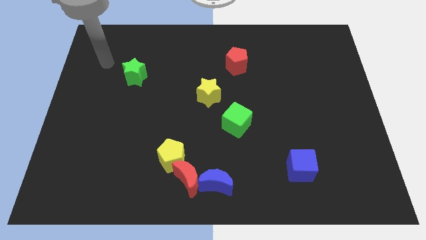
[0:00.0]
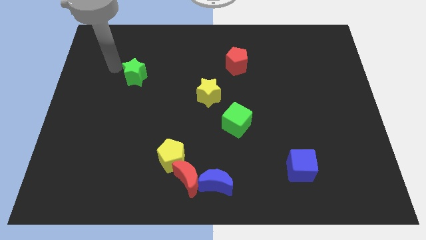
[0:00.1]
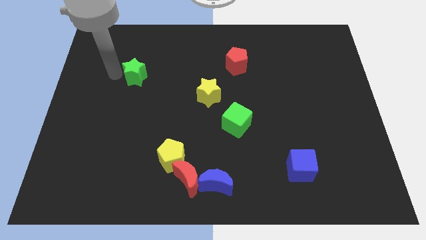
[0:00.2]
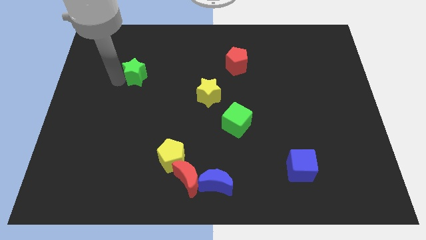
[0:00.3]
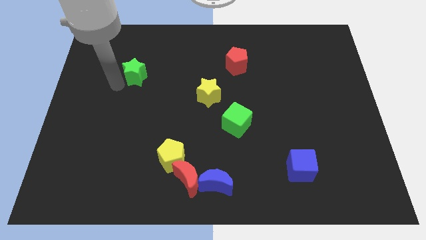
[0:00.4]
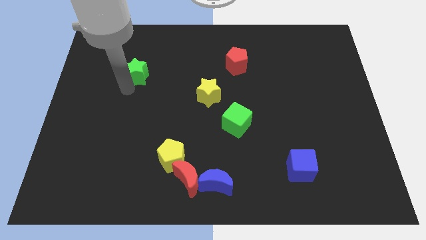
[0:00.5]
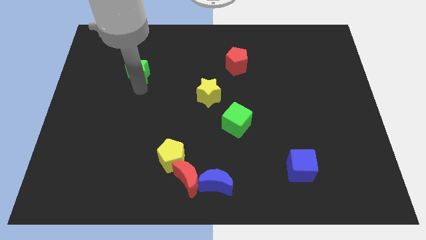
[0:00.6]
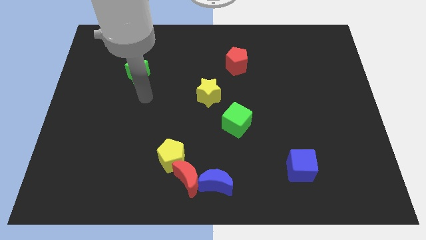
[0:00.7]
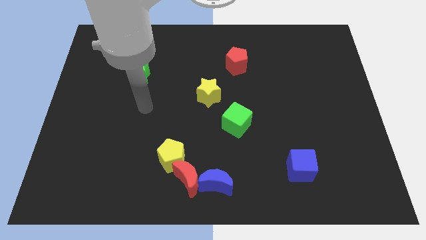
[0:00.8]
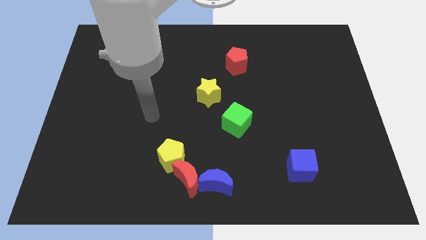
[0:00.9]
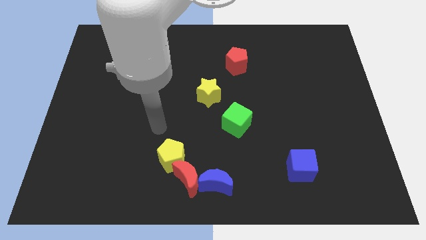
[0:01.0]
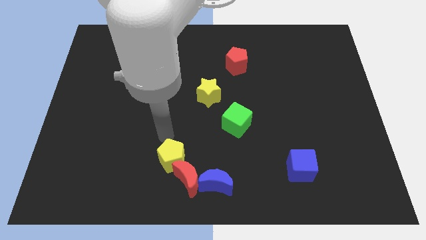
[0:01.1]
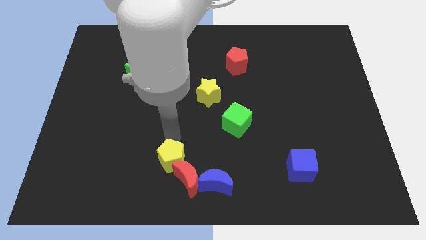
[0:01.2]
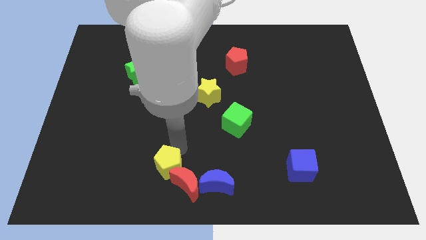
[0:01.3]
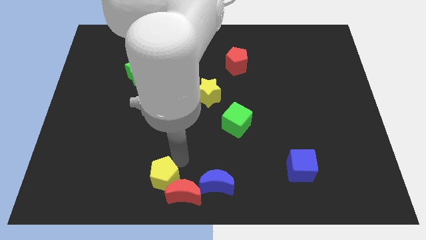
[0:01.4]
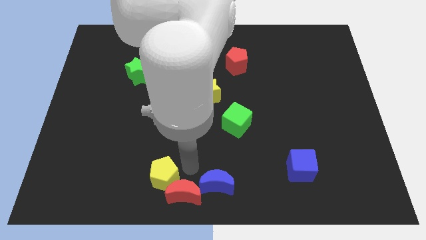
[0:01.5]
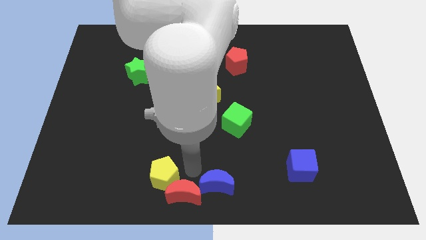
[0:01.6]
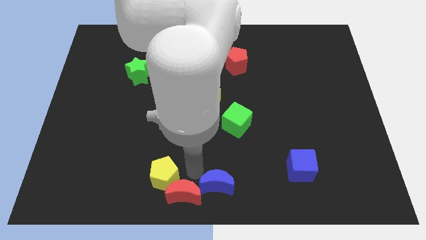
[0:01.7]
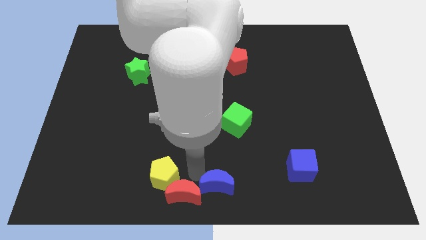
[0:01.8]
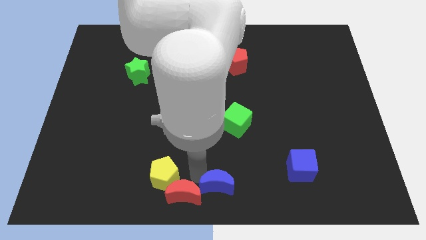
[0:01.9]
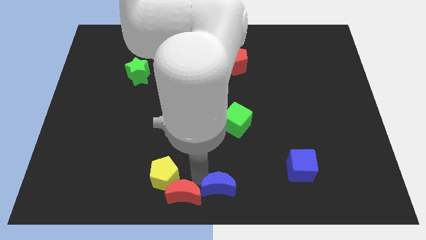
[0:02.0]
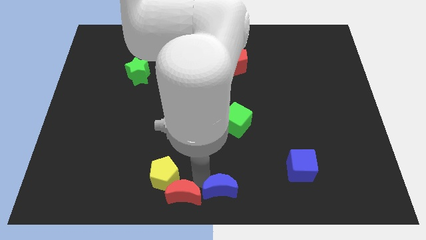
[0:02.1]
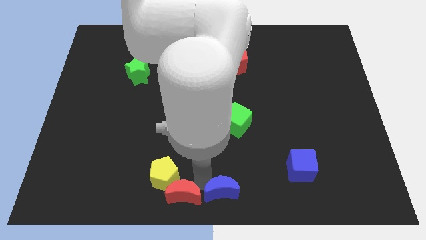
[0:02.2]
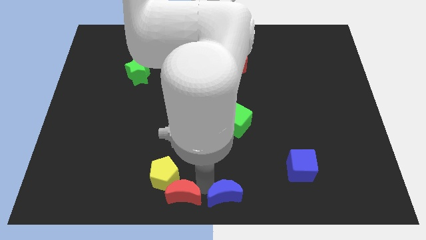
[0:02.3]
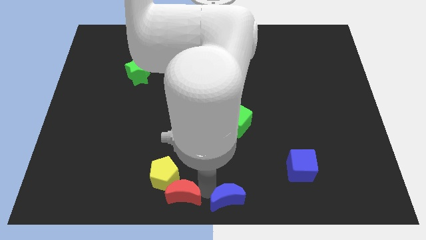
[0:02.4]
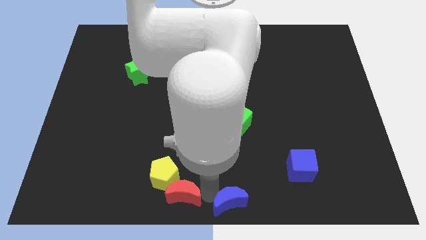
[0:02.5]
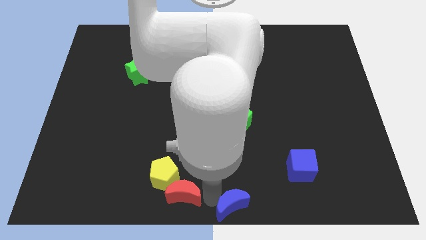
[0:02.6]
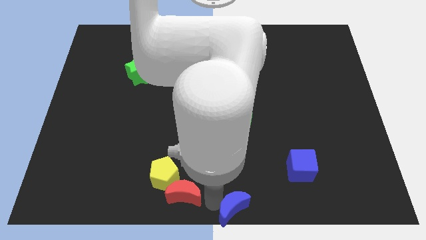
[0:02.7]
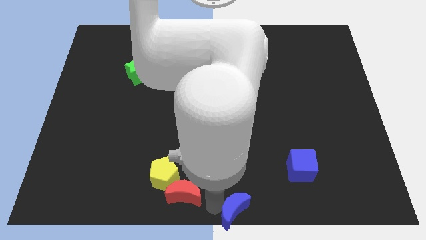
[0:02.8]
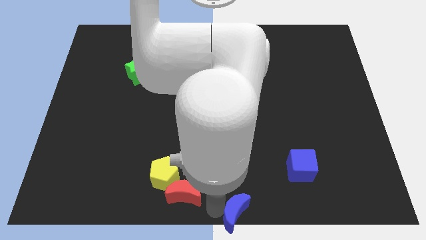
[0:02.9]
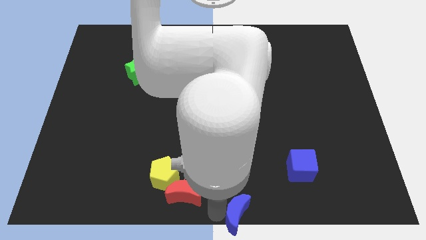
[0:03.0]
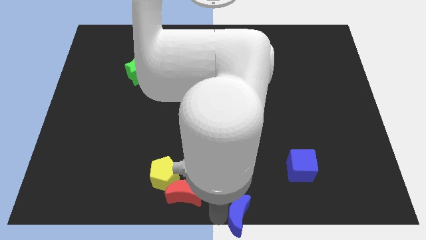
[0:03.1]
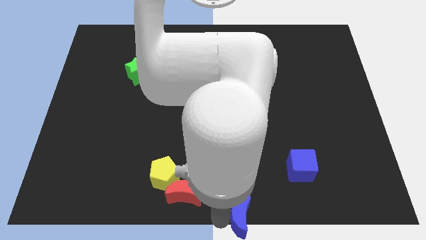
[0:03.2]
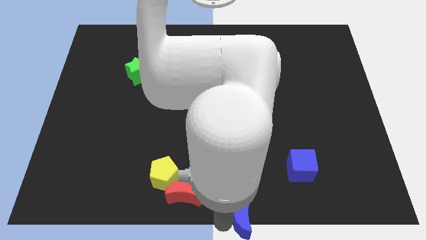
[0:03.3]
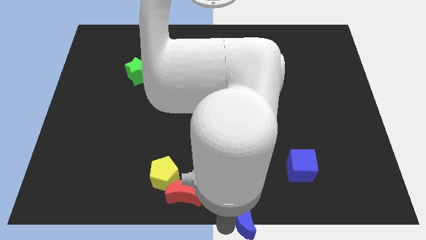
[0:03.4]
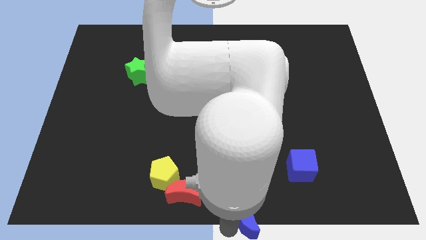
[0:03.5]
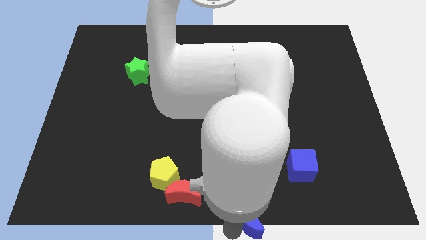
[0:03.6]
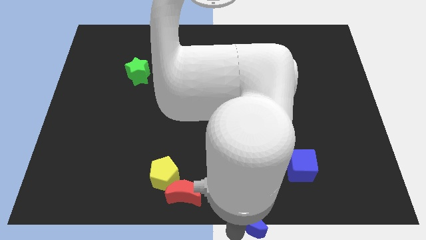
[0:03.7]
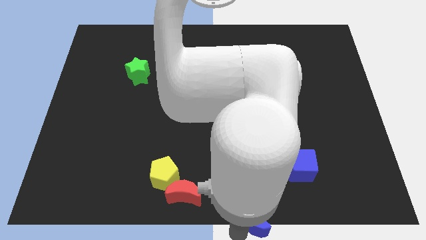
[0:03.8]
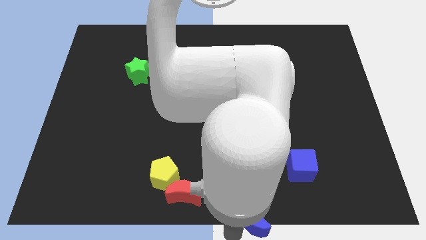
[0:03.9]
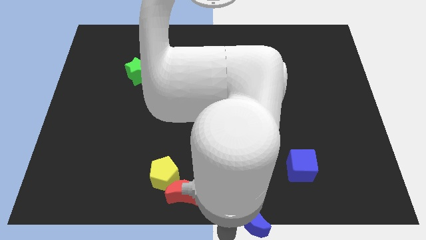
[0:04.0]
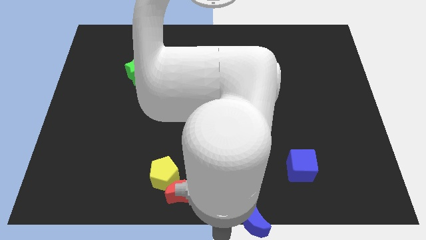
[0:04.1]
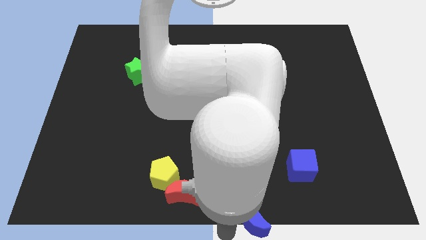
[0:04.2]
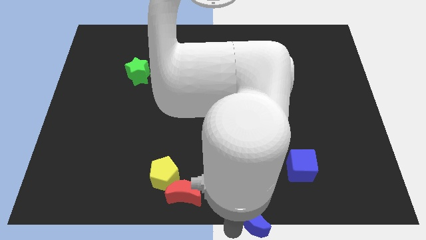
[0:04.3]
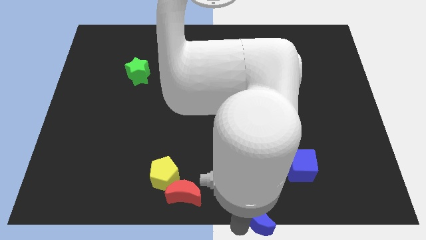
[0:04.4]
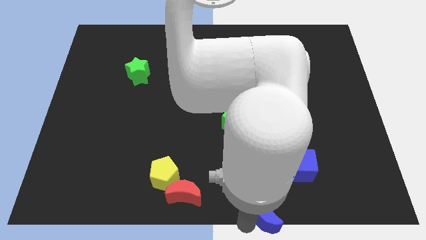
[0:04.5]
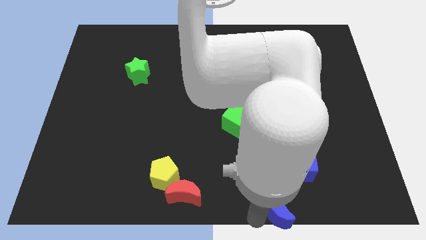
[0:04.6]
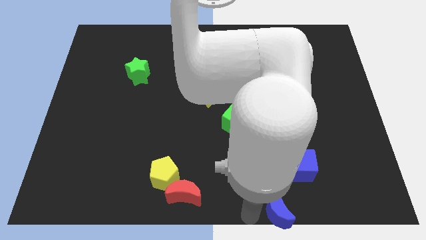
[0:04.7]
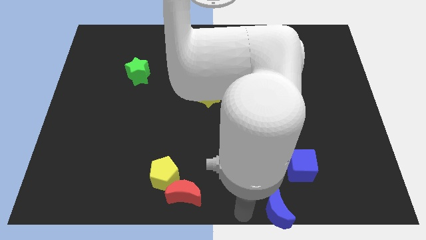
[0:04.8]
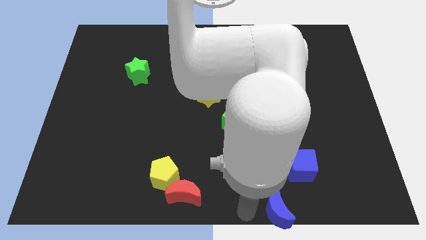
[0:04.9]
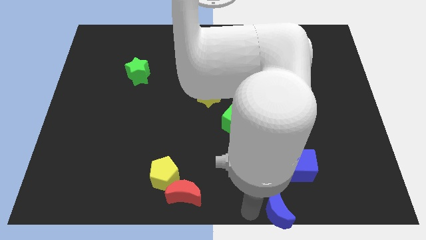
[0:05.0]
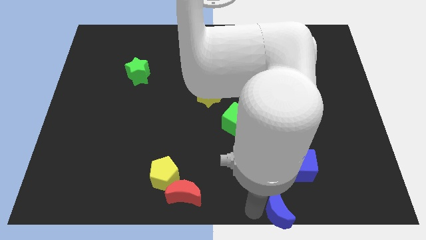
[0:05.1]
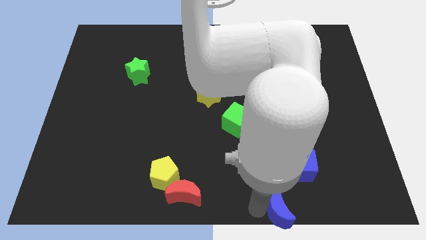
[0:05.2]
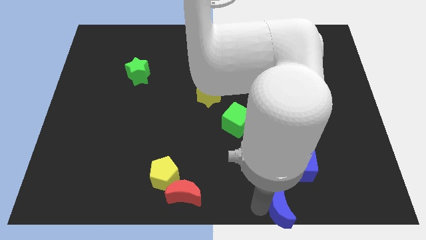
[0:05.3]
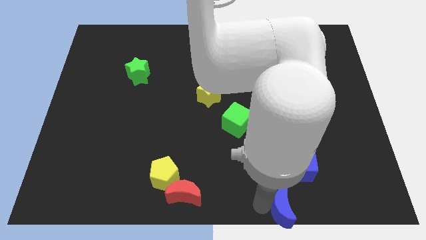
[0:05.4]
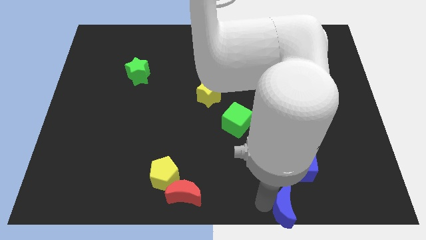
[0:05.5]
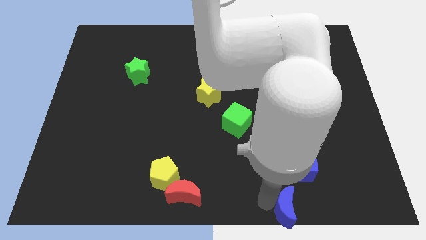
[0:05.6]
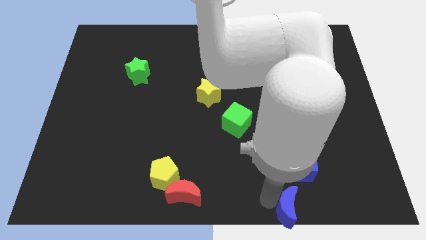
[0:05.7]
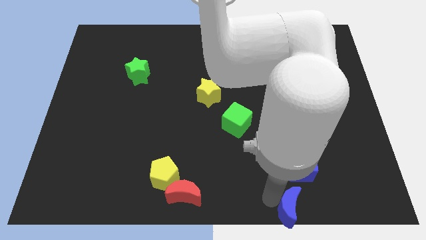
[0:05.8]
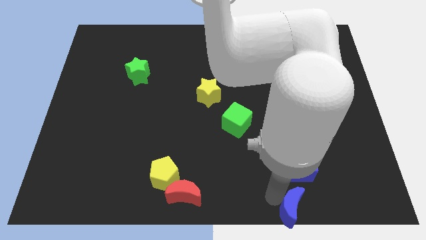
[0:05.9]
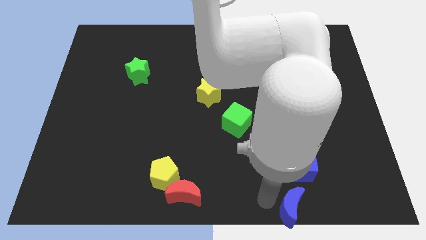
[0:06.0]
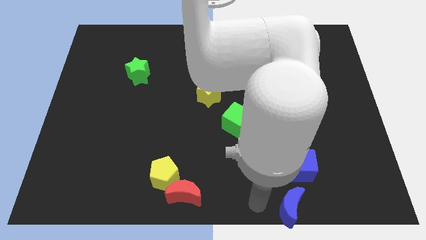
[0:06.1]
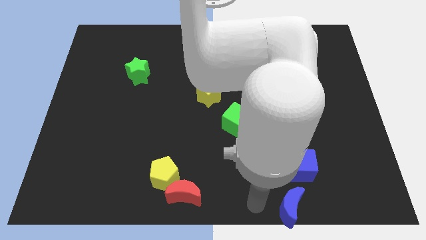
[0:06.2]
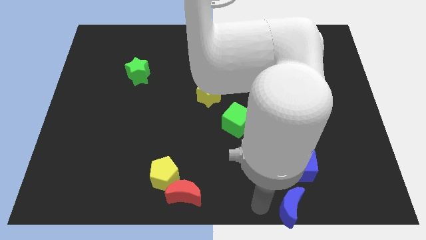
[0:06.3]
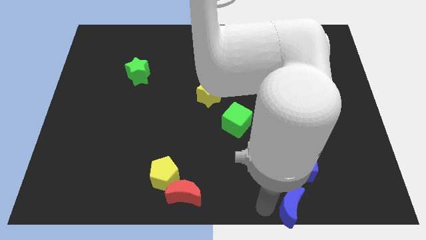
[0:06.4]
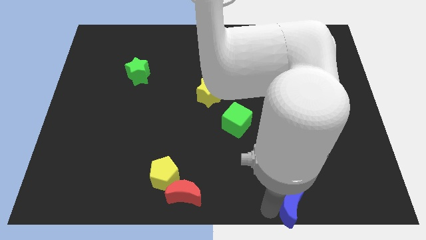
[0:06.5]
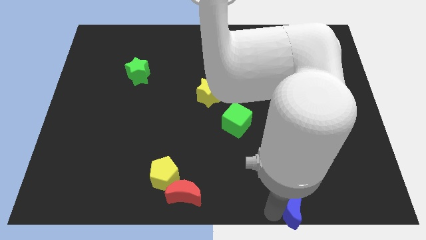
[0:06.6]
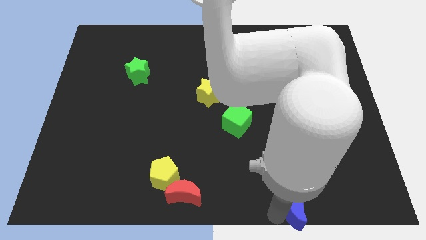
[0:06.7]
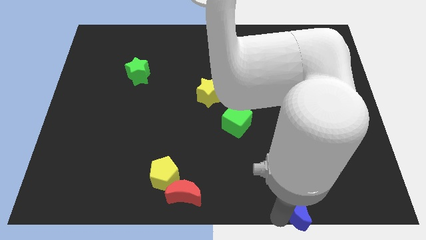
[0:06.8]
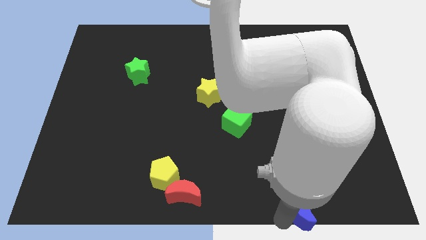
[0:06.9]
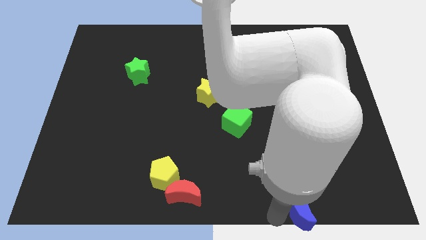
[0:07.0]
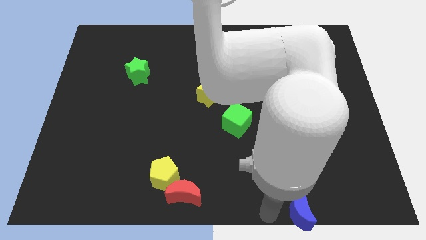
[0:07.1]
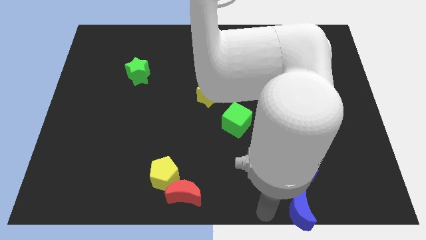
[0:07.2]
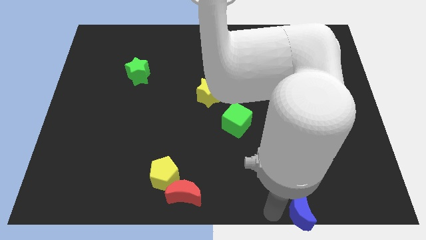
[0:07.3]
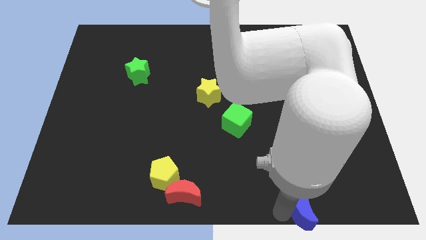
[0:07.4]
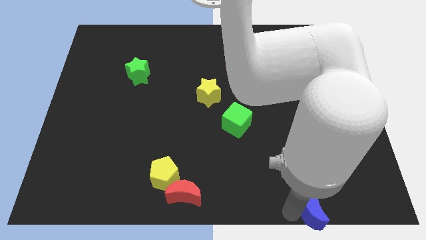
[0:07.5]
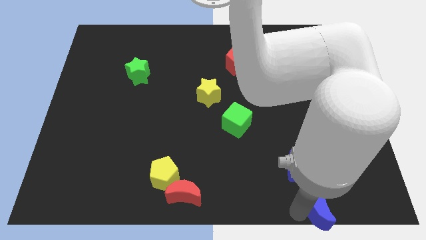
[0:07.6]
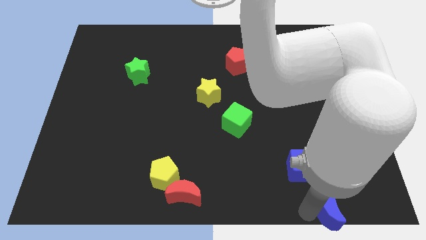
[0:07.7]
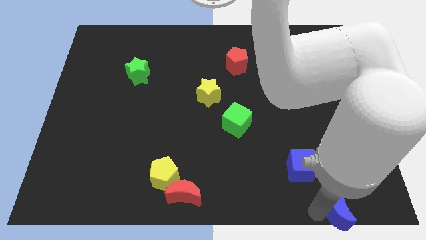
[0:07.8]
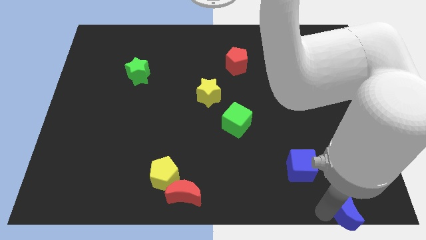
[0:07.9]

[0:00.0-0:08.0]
slide the blue moon to the bottom right of the board
